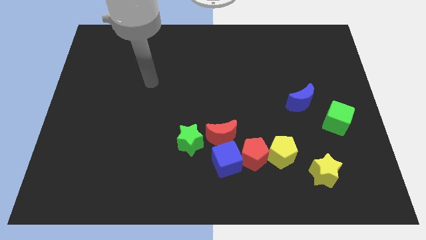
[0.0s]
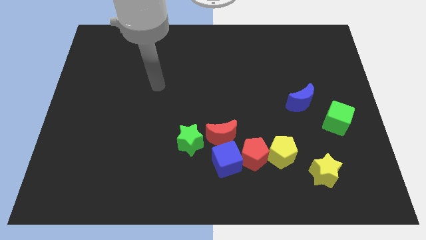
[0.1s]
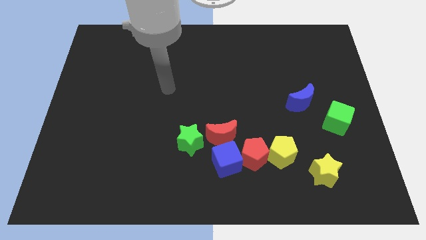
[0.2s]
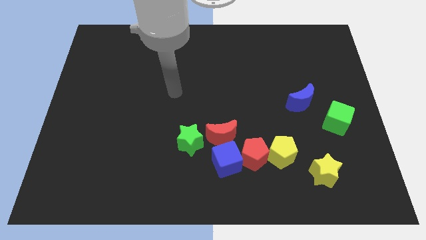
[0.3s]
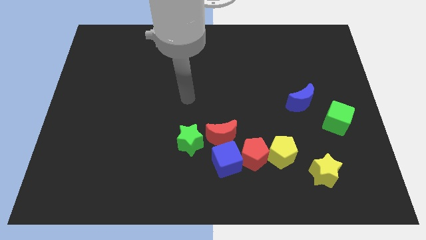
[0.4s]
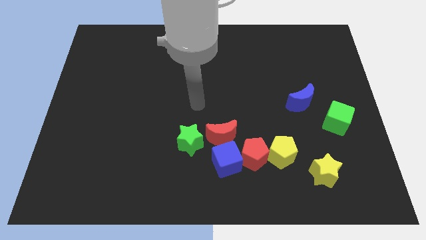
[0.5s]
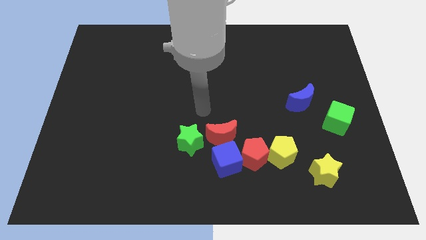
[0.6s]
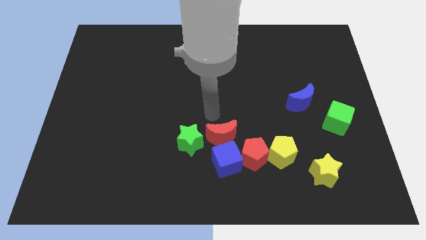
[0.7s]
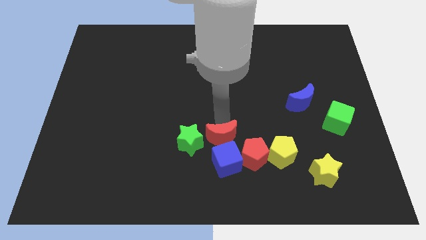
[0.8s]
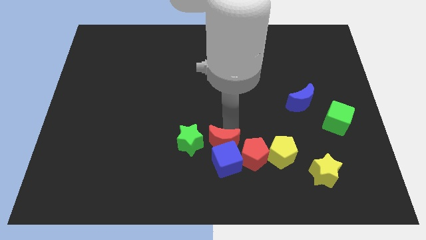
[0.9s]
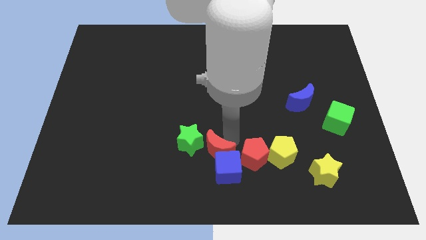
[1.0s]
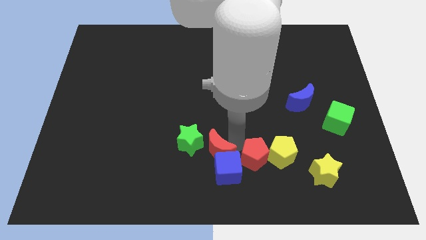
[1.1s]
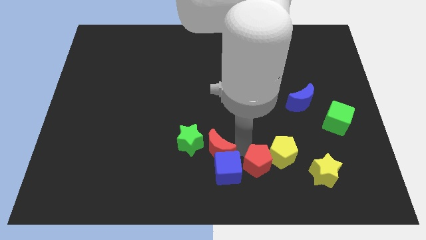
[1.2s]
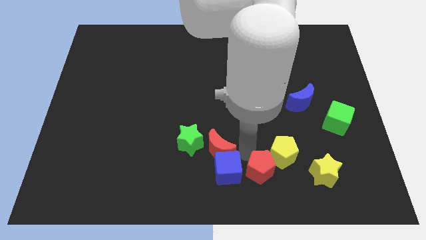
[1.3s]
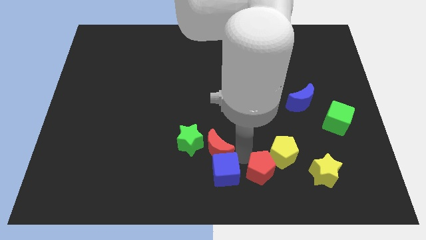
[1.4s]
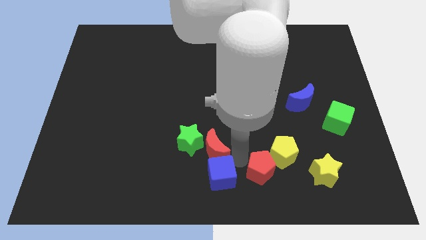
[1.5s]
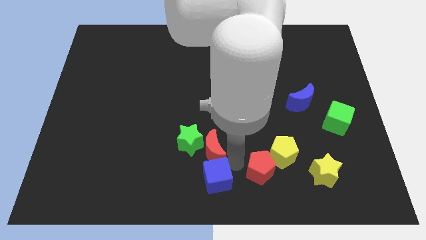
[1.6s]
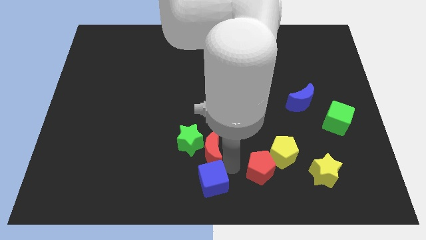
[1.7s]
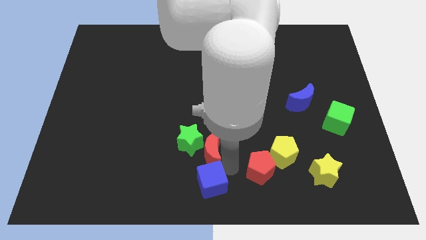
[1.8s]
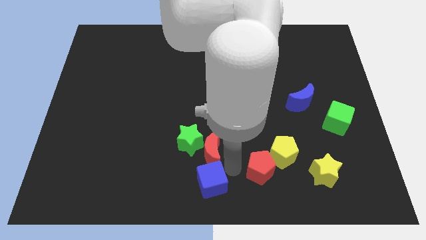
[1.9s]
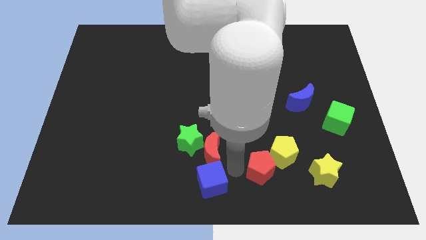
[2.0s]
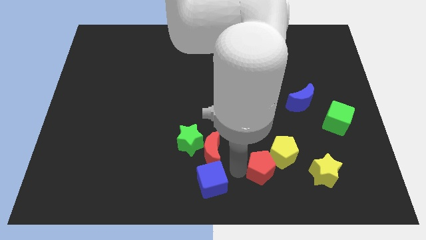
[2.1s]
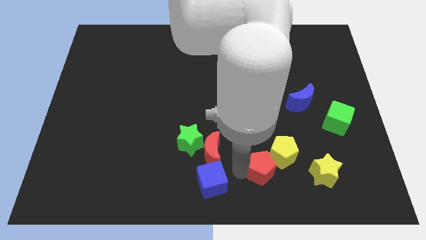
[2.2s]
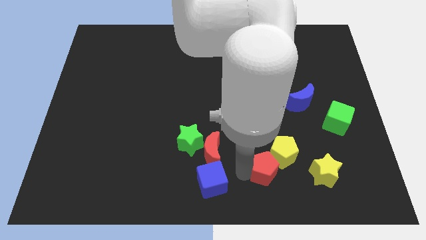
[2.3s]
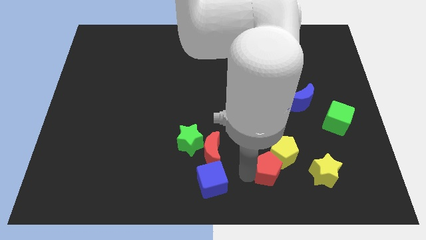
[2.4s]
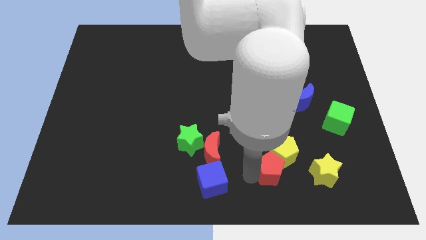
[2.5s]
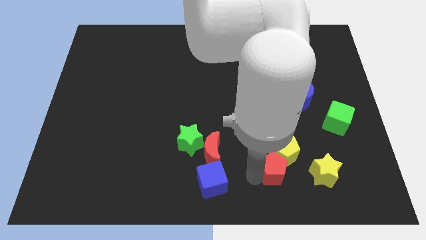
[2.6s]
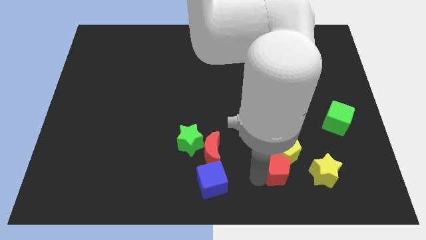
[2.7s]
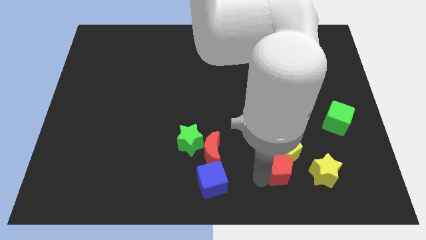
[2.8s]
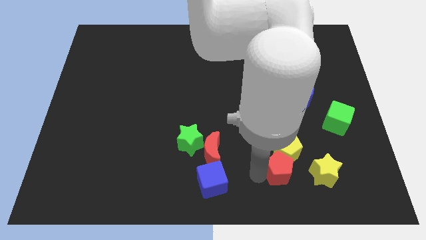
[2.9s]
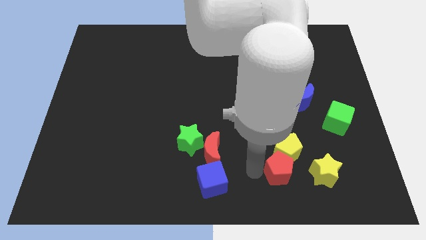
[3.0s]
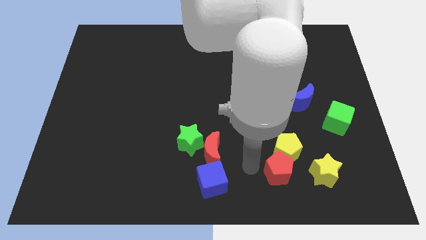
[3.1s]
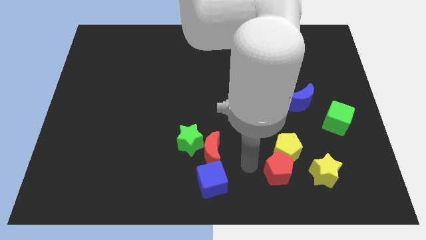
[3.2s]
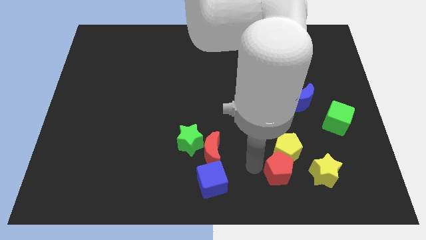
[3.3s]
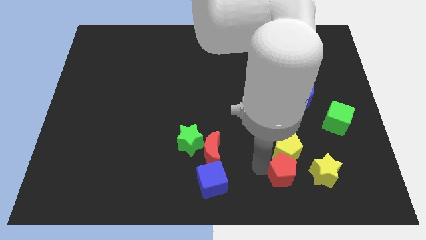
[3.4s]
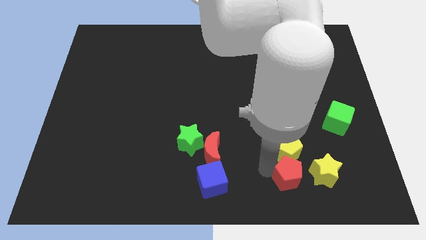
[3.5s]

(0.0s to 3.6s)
pull the red pentagon apart from the clump

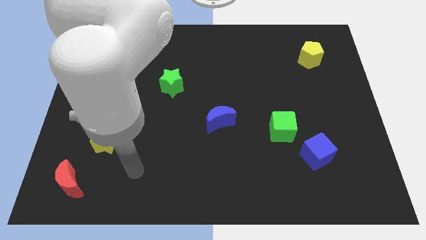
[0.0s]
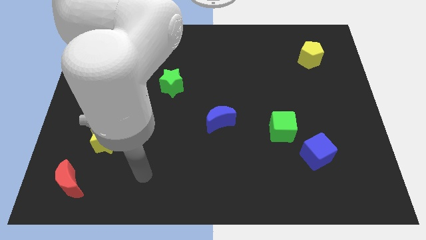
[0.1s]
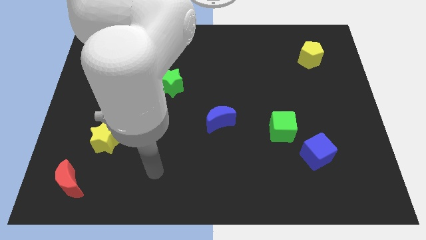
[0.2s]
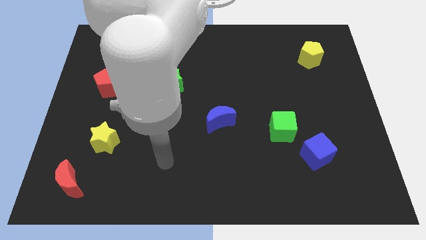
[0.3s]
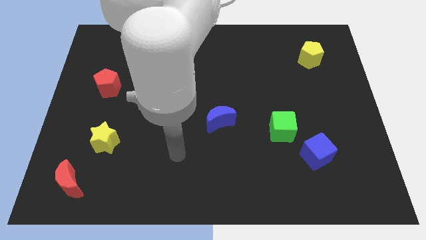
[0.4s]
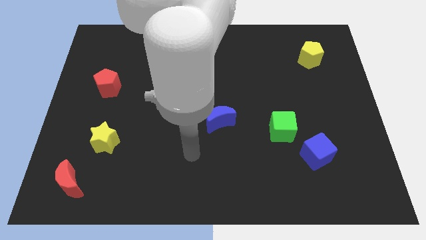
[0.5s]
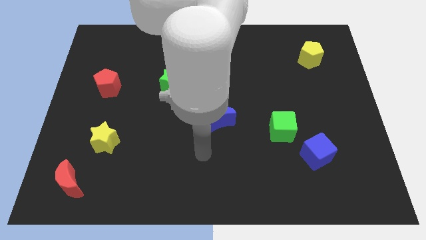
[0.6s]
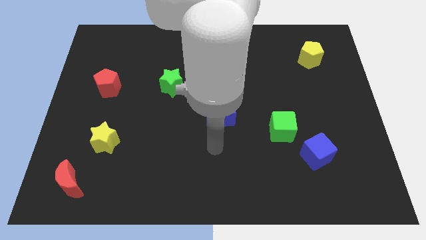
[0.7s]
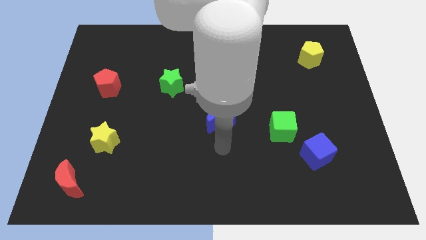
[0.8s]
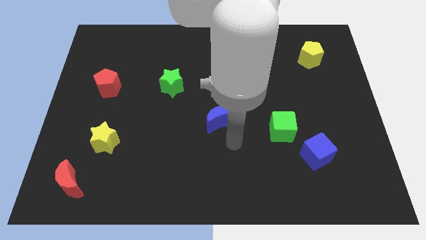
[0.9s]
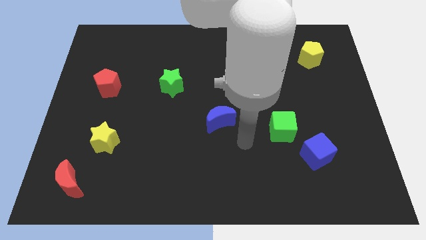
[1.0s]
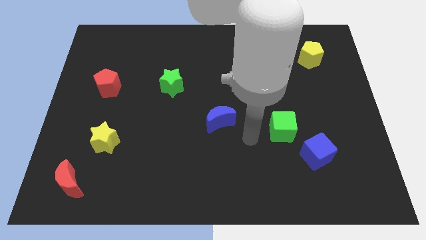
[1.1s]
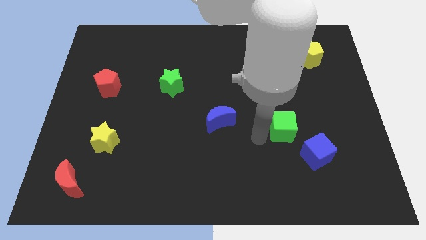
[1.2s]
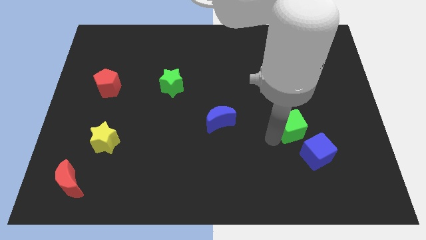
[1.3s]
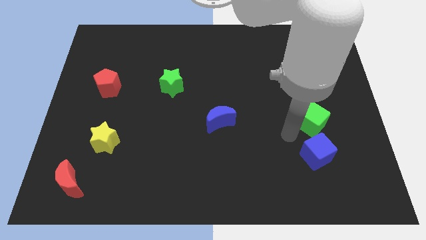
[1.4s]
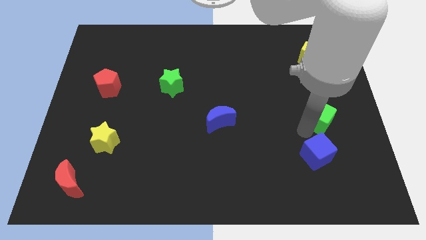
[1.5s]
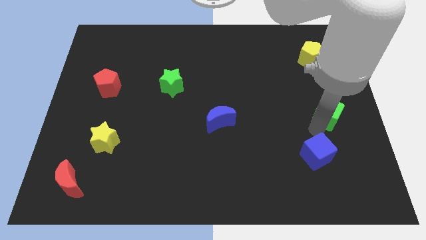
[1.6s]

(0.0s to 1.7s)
pull the blue cube apart from the green cube

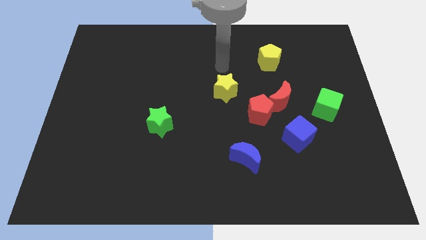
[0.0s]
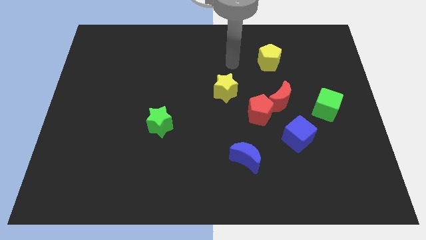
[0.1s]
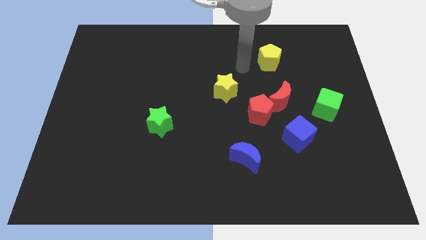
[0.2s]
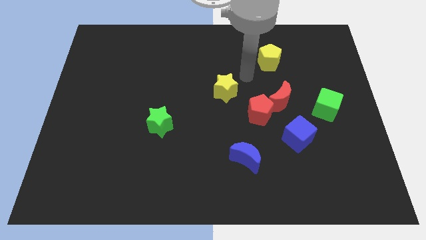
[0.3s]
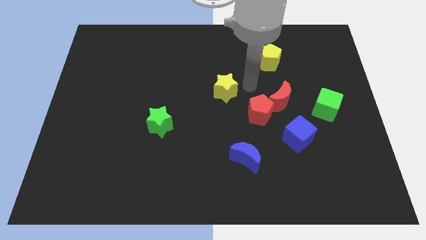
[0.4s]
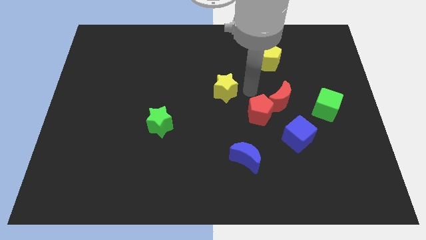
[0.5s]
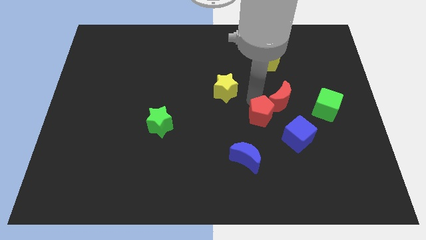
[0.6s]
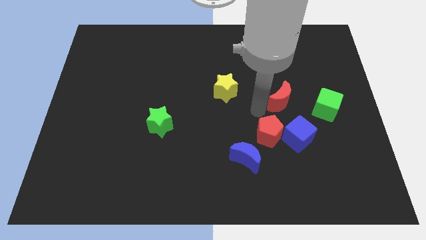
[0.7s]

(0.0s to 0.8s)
move the red moon away from the red pentagon

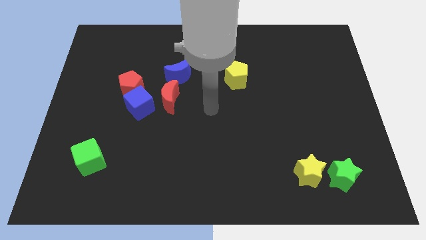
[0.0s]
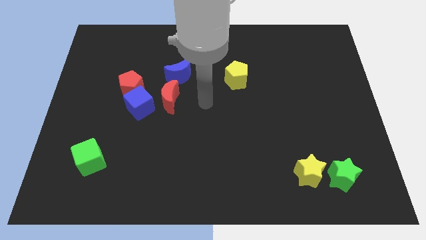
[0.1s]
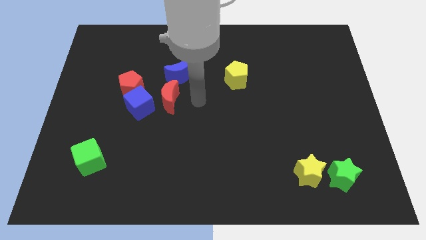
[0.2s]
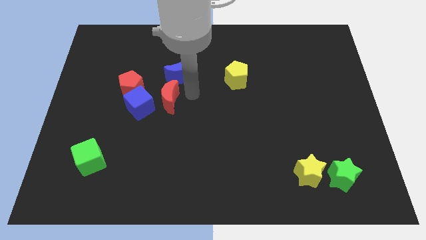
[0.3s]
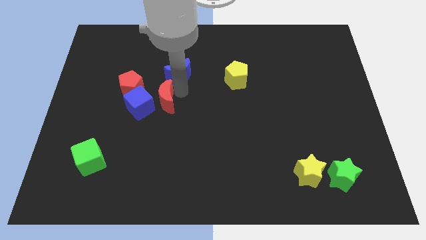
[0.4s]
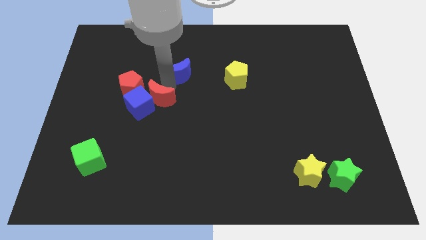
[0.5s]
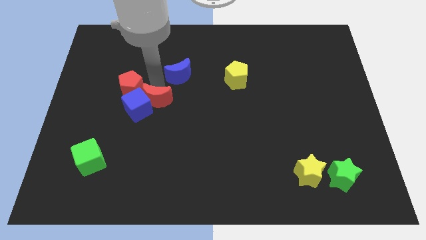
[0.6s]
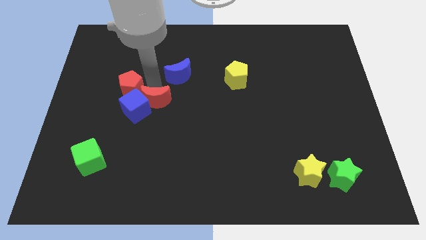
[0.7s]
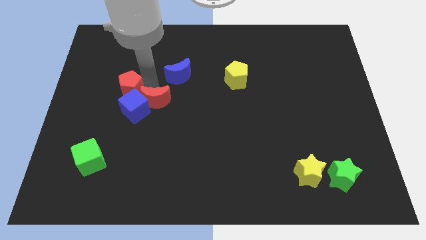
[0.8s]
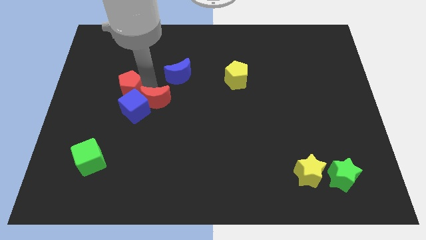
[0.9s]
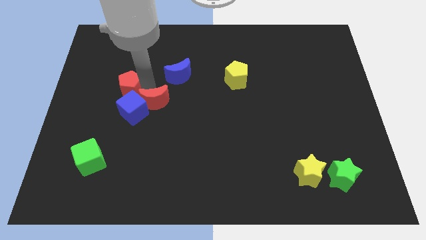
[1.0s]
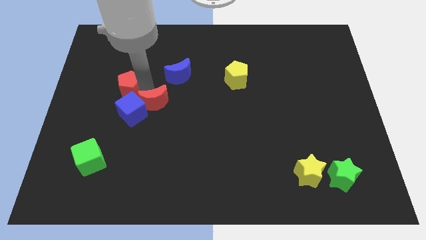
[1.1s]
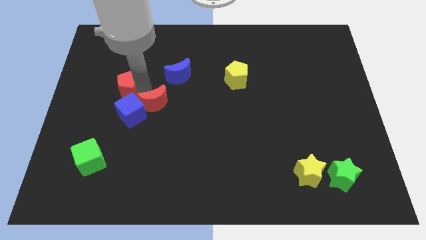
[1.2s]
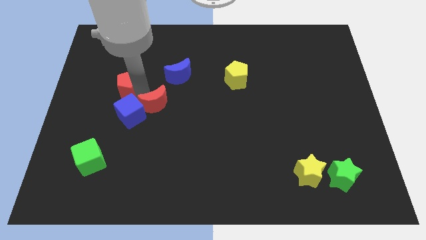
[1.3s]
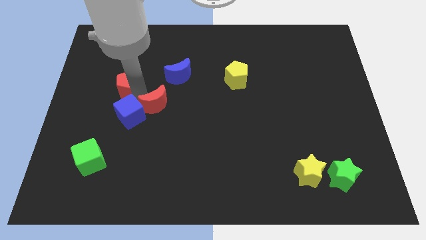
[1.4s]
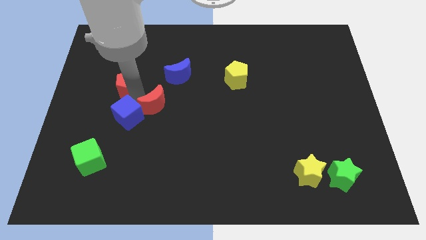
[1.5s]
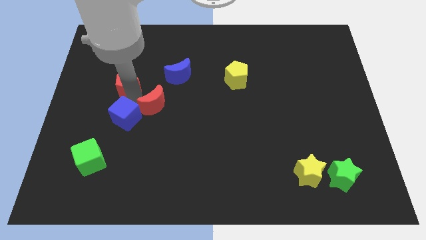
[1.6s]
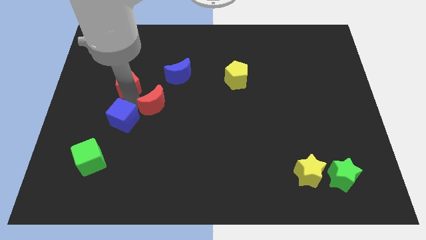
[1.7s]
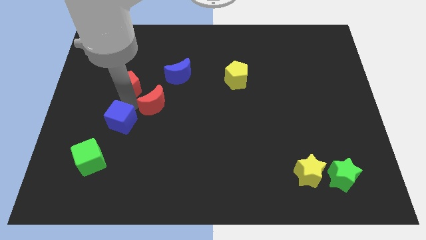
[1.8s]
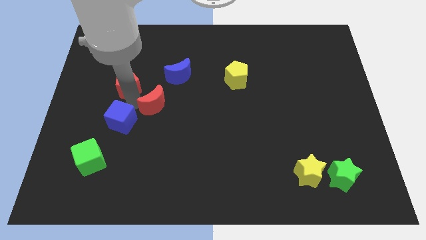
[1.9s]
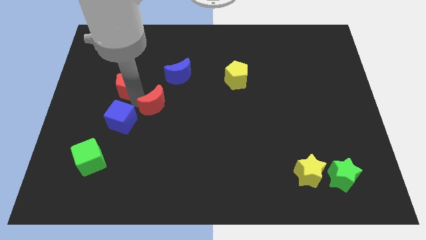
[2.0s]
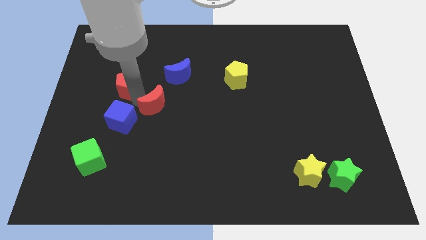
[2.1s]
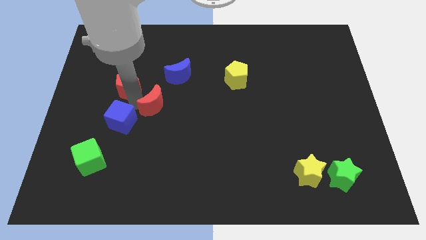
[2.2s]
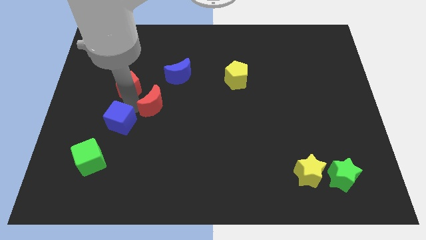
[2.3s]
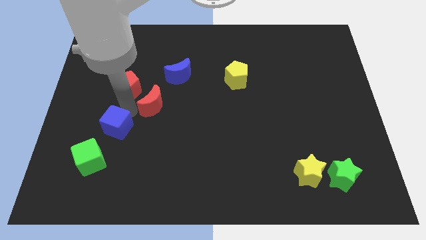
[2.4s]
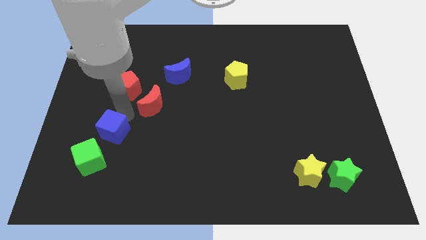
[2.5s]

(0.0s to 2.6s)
pull the blue cube apart from the red pentagon and red moon

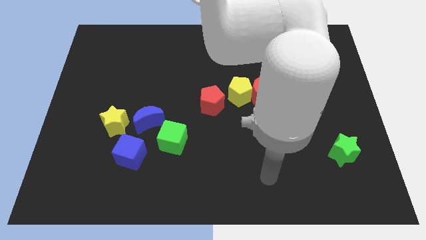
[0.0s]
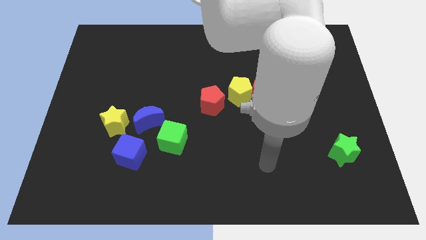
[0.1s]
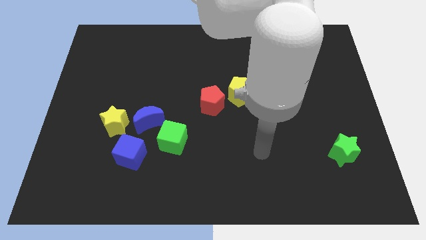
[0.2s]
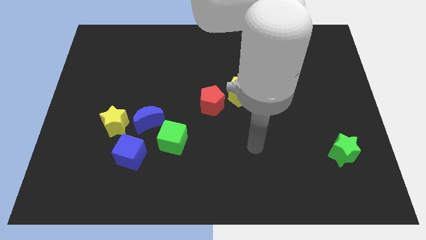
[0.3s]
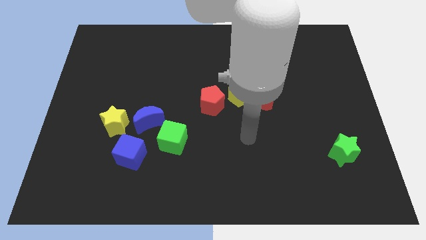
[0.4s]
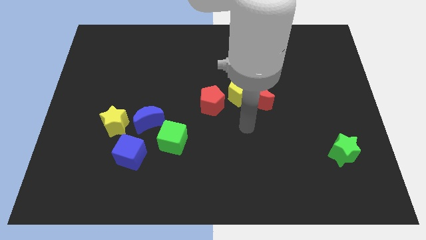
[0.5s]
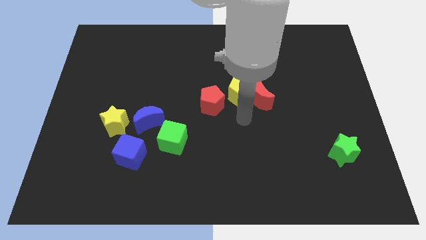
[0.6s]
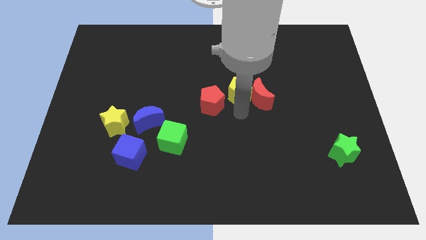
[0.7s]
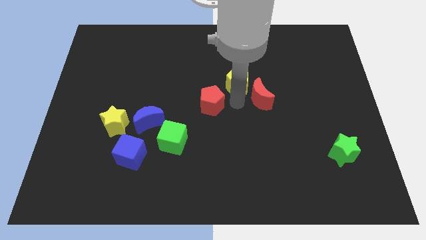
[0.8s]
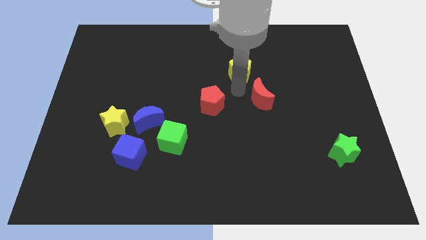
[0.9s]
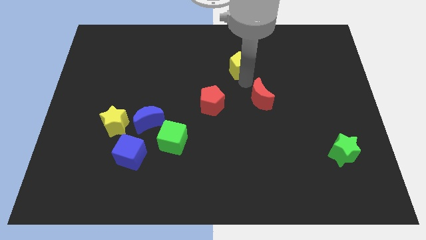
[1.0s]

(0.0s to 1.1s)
pull the red moon apart from the yellow pentagon
